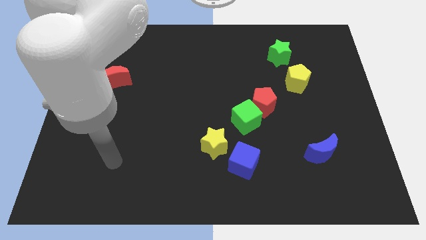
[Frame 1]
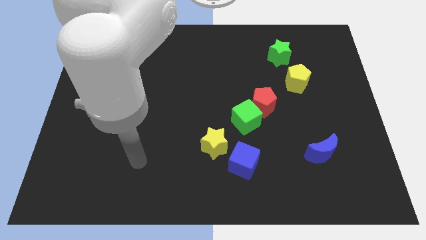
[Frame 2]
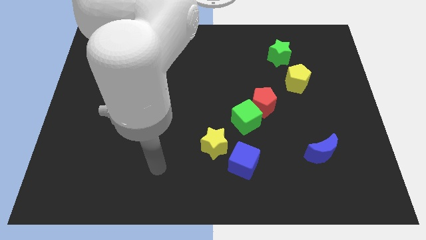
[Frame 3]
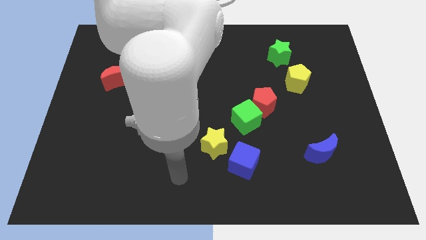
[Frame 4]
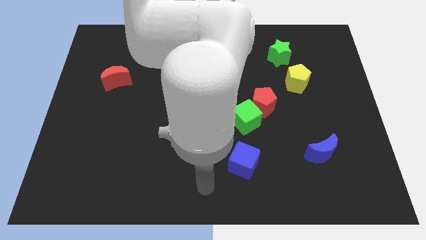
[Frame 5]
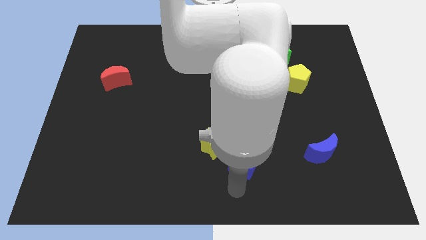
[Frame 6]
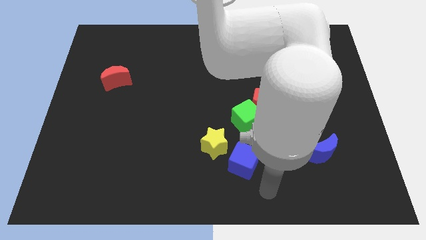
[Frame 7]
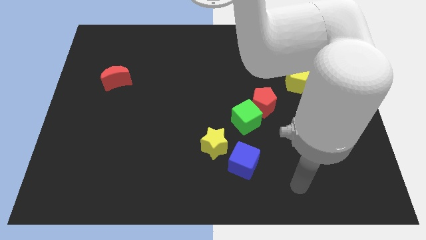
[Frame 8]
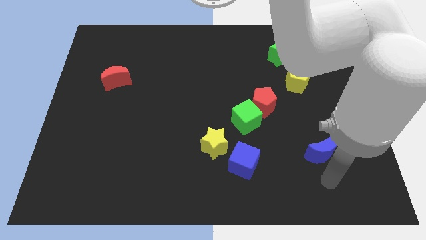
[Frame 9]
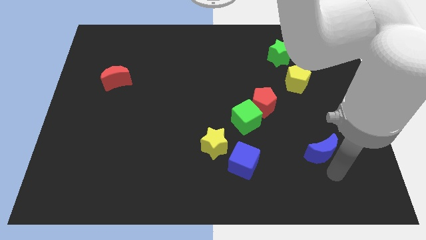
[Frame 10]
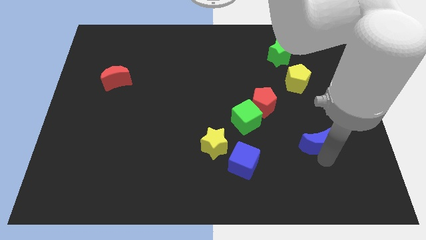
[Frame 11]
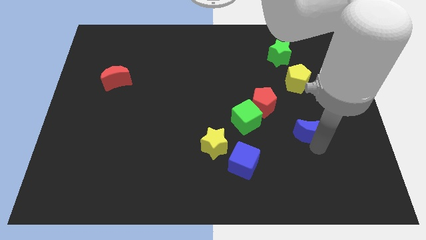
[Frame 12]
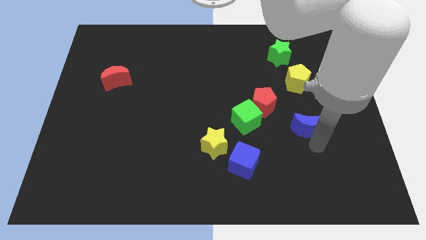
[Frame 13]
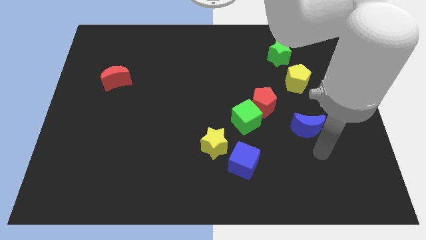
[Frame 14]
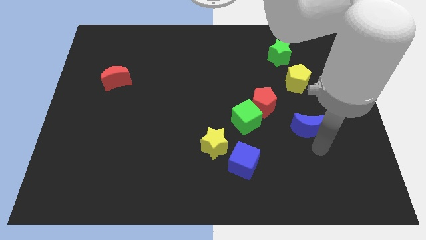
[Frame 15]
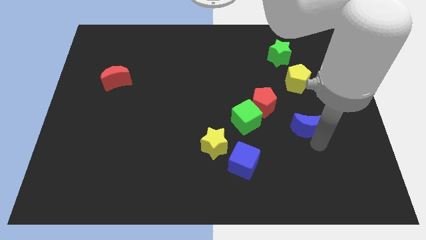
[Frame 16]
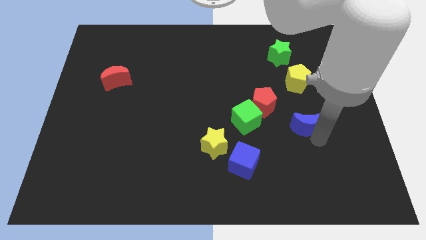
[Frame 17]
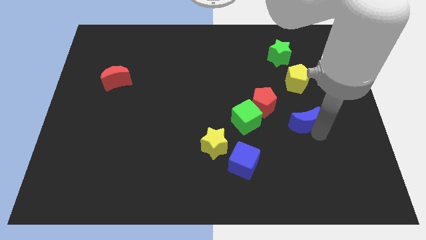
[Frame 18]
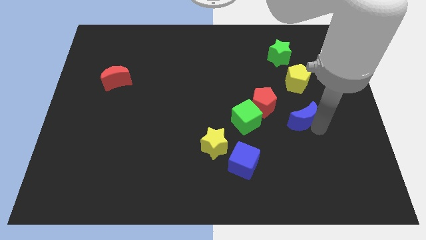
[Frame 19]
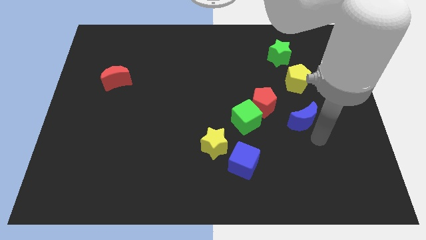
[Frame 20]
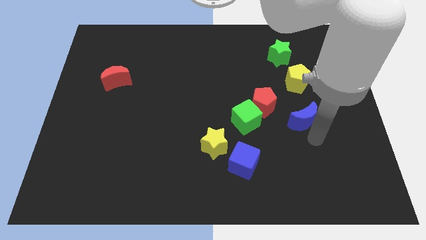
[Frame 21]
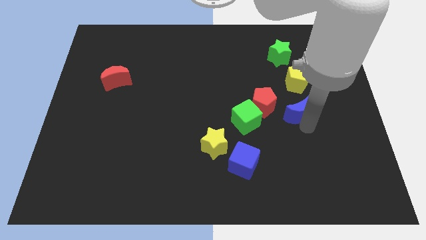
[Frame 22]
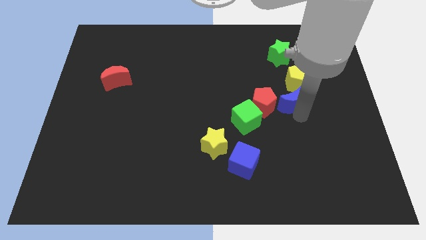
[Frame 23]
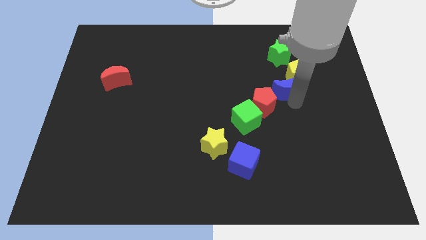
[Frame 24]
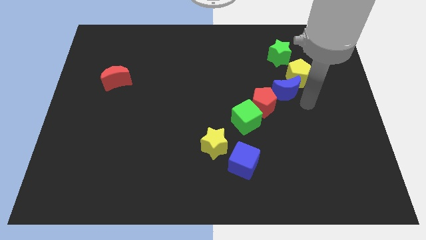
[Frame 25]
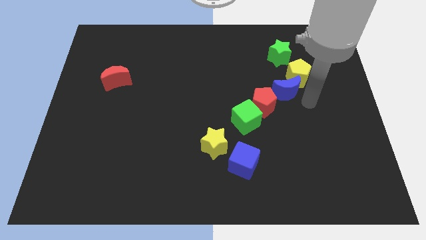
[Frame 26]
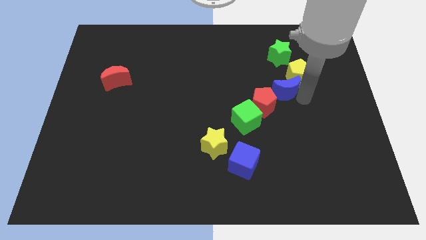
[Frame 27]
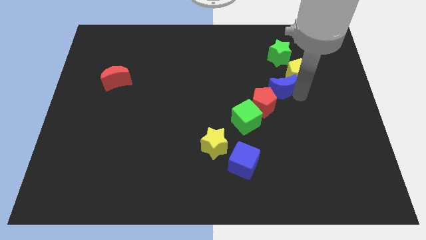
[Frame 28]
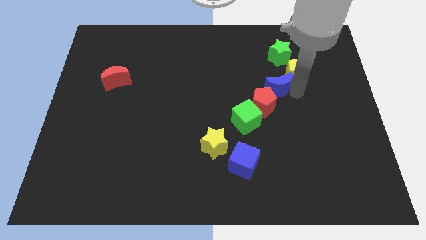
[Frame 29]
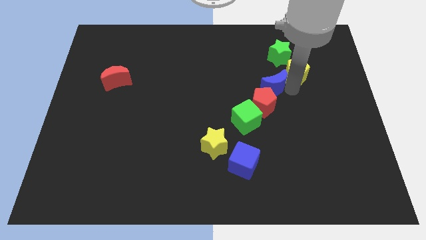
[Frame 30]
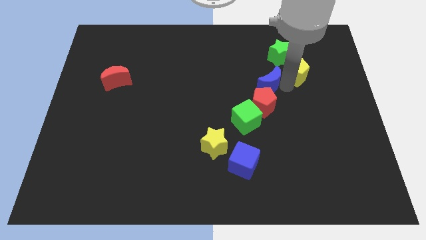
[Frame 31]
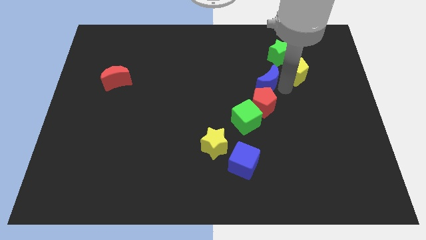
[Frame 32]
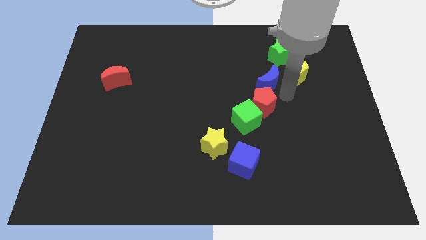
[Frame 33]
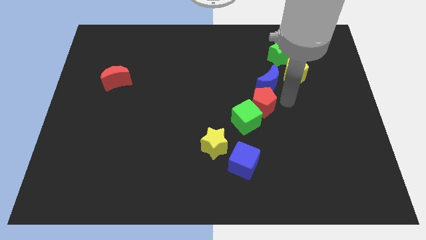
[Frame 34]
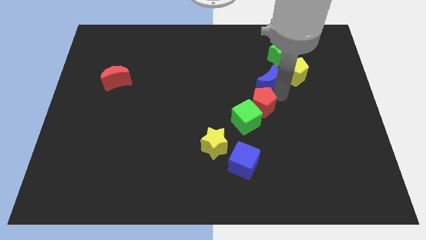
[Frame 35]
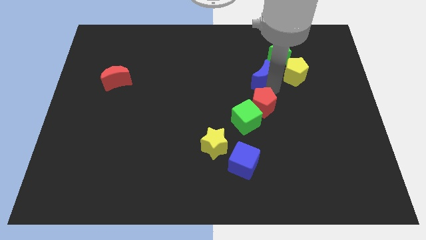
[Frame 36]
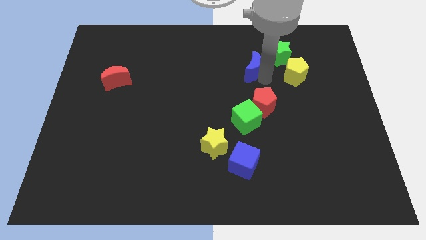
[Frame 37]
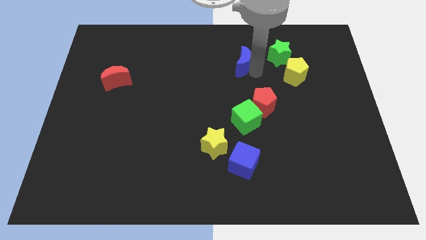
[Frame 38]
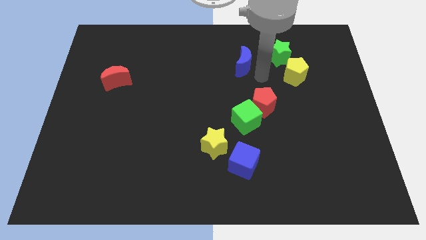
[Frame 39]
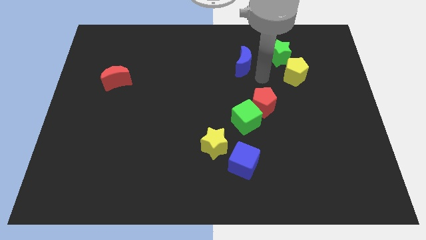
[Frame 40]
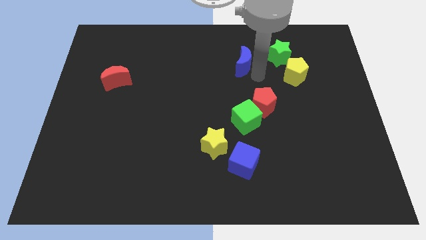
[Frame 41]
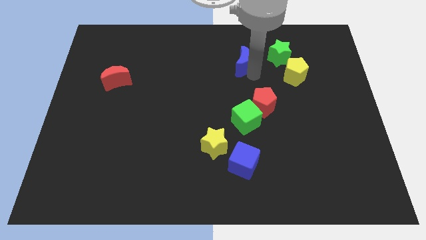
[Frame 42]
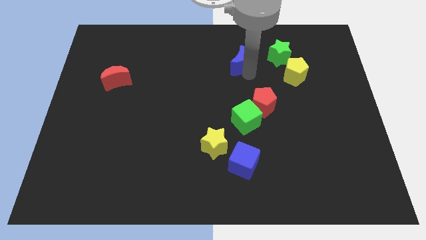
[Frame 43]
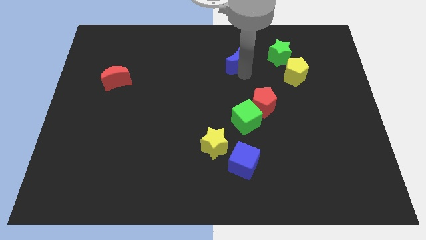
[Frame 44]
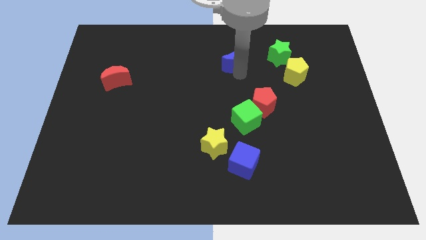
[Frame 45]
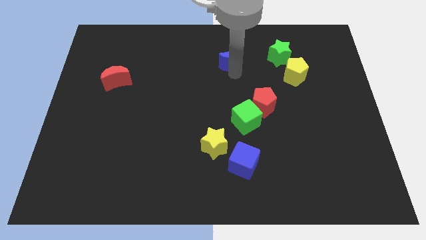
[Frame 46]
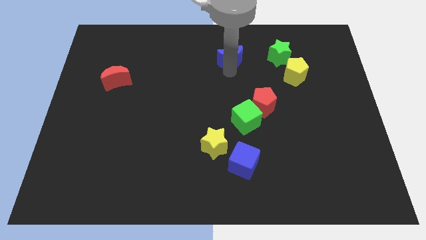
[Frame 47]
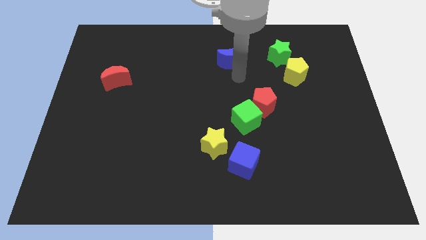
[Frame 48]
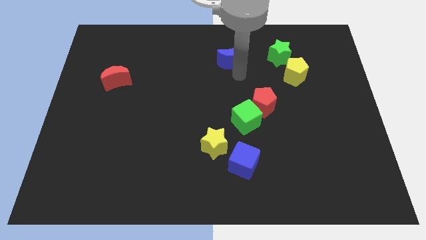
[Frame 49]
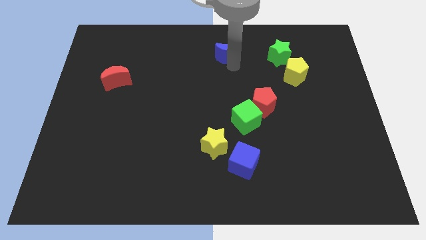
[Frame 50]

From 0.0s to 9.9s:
push the blue moon to the top
